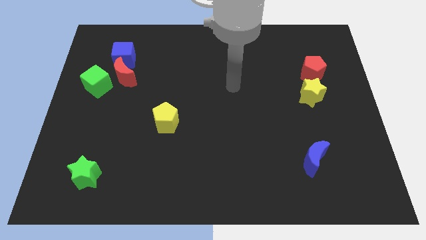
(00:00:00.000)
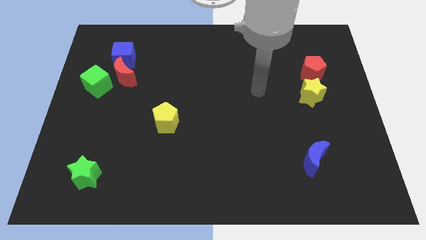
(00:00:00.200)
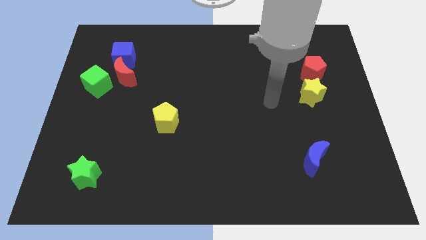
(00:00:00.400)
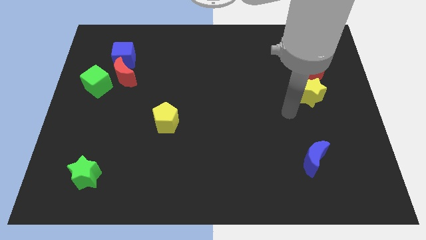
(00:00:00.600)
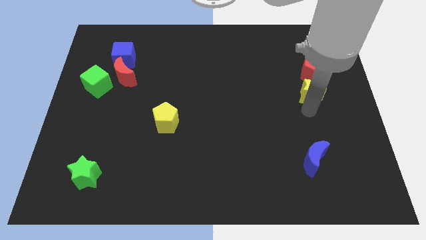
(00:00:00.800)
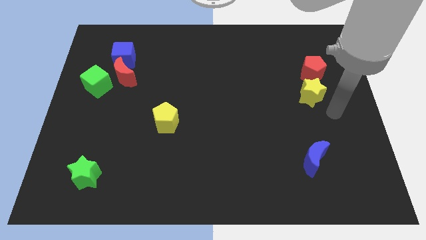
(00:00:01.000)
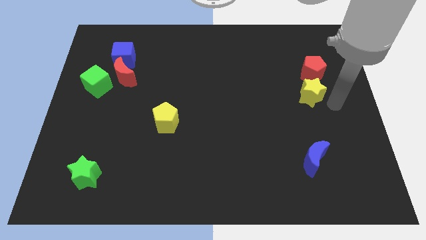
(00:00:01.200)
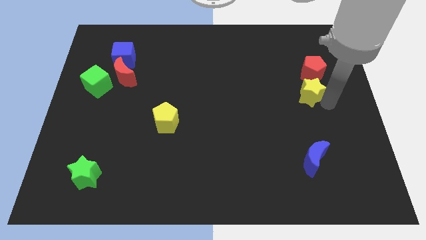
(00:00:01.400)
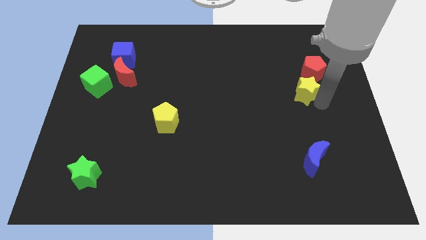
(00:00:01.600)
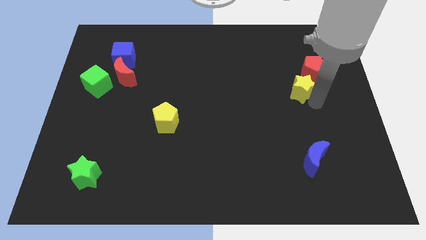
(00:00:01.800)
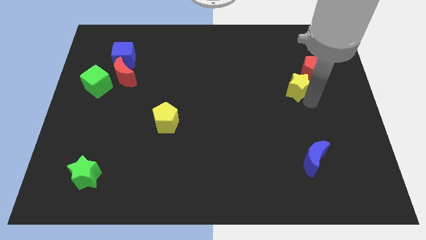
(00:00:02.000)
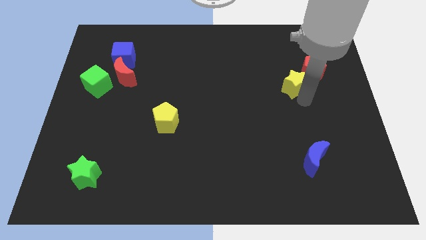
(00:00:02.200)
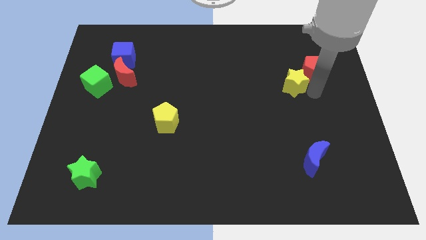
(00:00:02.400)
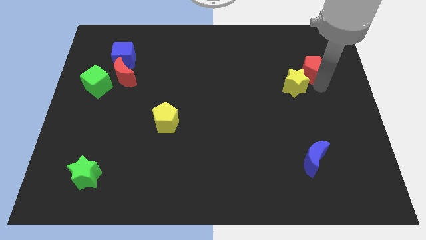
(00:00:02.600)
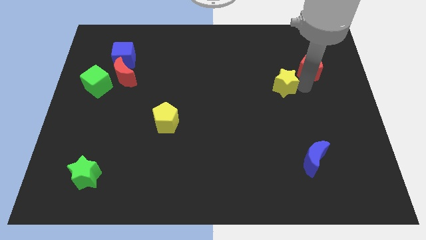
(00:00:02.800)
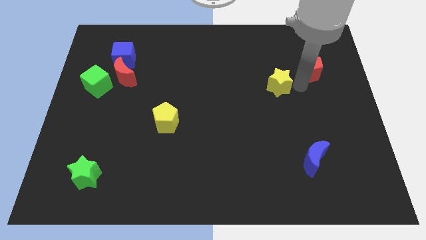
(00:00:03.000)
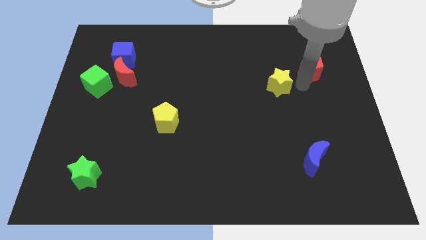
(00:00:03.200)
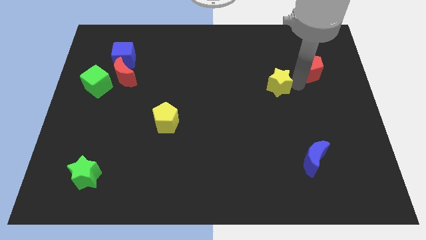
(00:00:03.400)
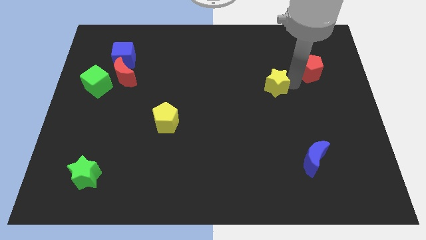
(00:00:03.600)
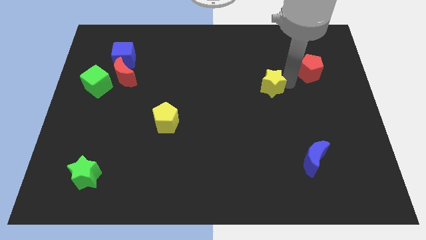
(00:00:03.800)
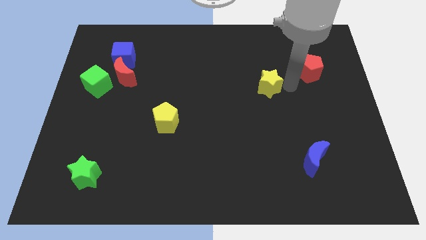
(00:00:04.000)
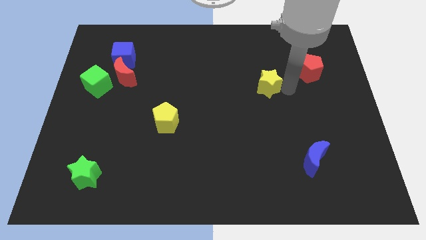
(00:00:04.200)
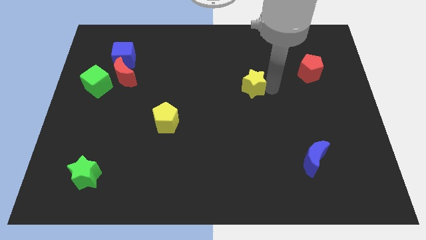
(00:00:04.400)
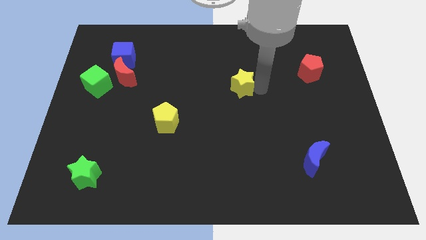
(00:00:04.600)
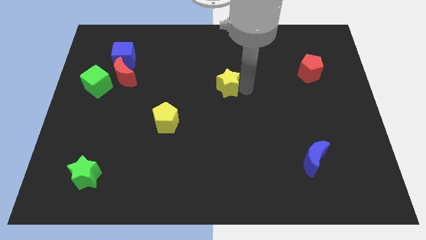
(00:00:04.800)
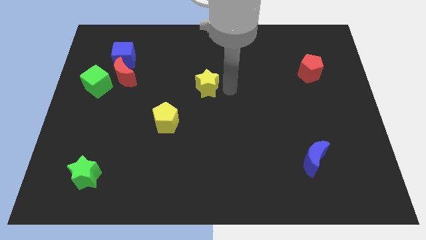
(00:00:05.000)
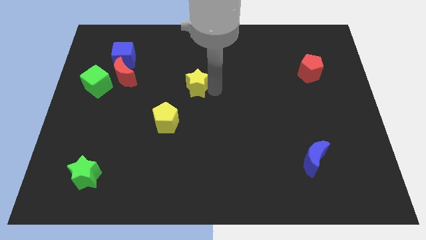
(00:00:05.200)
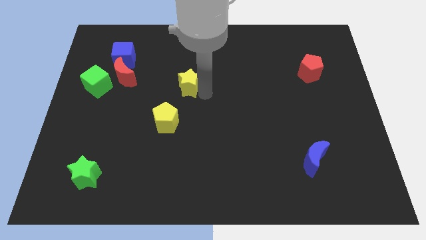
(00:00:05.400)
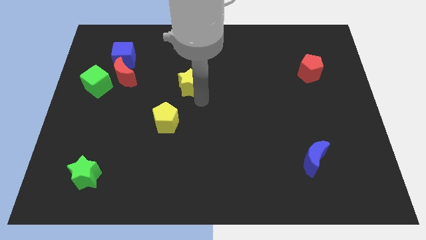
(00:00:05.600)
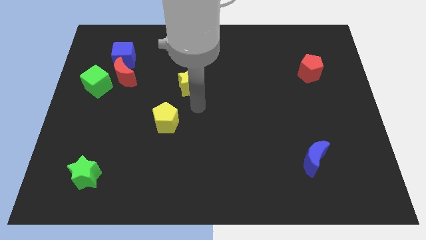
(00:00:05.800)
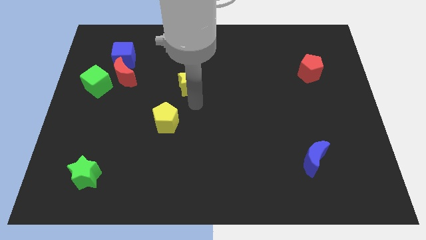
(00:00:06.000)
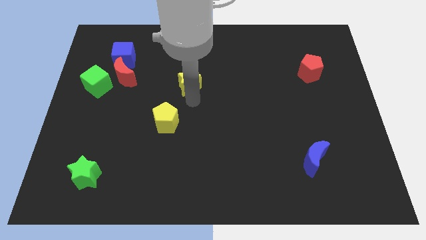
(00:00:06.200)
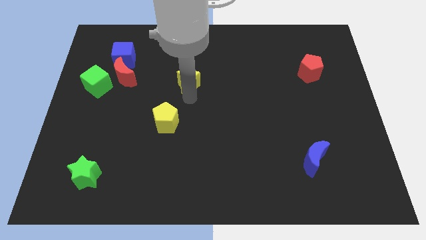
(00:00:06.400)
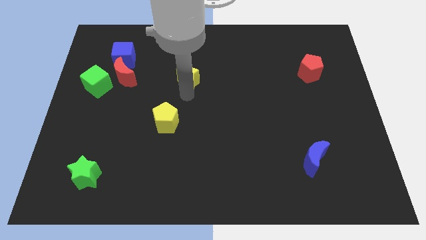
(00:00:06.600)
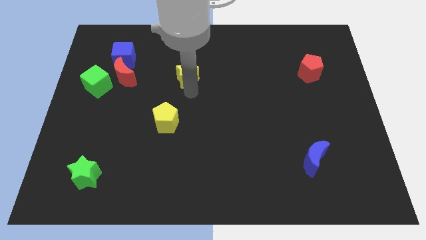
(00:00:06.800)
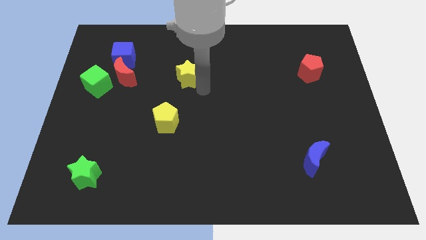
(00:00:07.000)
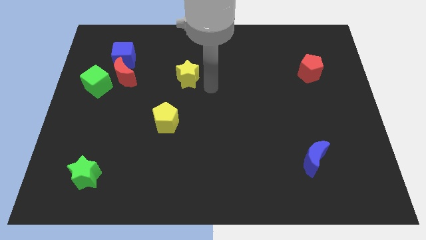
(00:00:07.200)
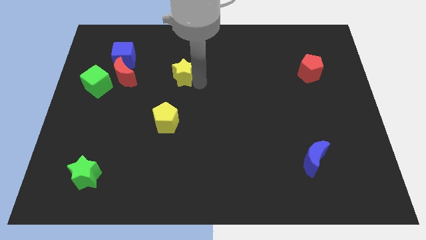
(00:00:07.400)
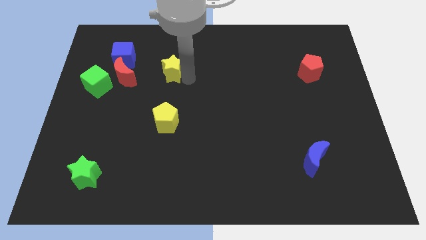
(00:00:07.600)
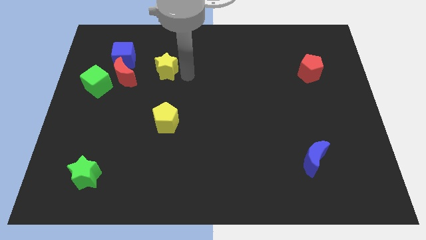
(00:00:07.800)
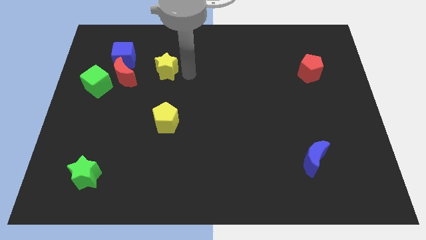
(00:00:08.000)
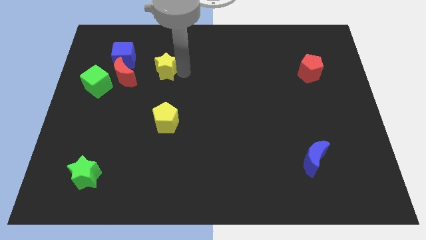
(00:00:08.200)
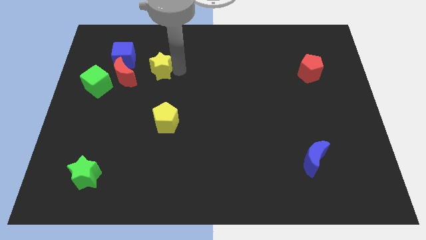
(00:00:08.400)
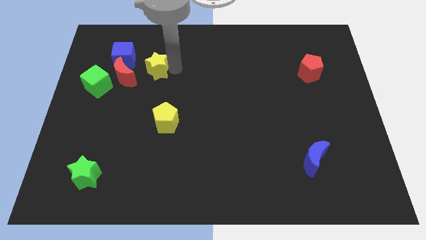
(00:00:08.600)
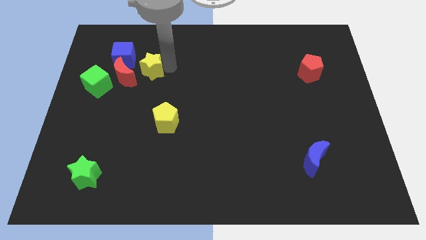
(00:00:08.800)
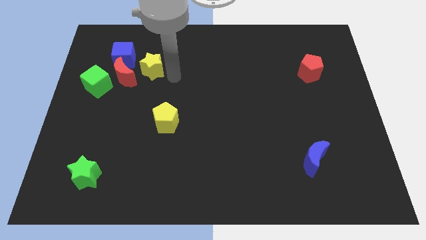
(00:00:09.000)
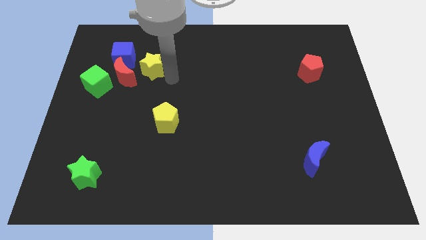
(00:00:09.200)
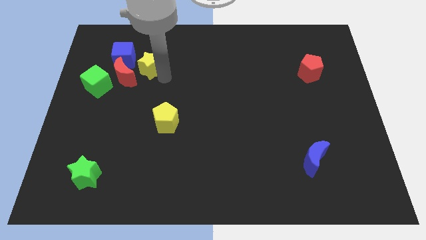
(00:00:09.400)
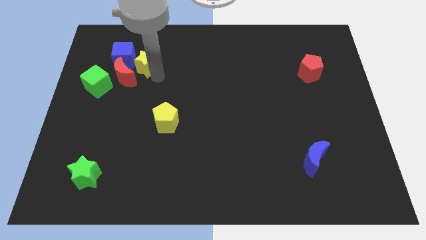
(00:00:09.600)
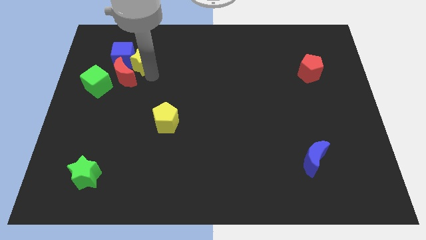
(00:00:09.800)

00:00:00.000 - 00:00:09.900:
slide the yellow star towards the blue cube

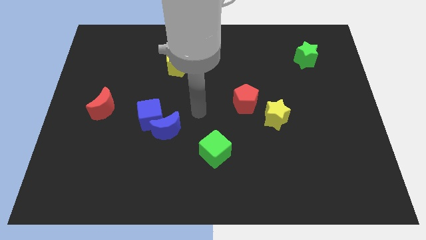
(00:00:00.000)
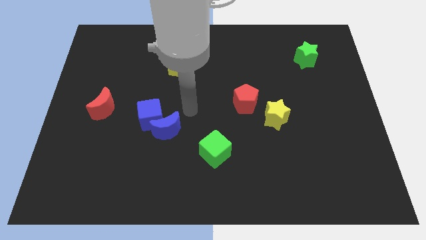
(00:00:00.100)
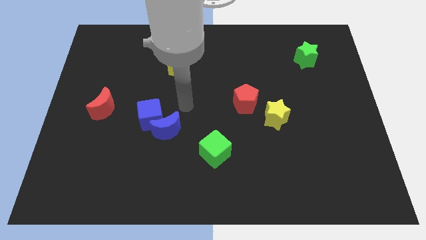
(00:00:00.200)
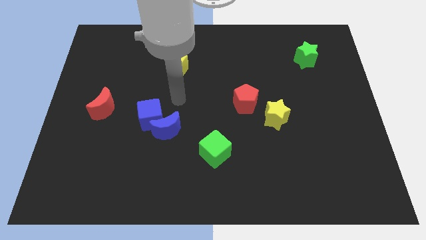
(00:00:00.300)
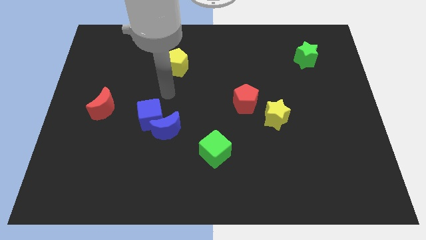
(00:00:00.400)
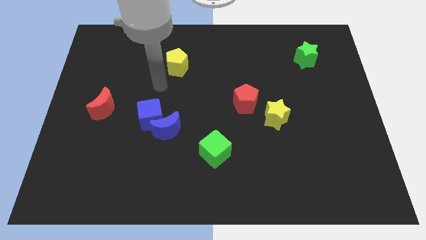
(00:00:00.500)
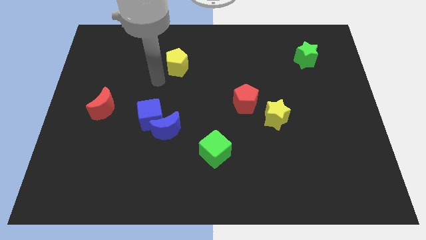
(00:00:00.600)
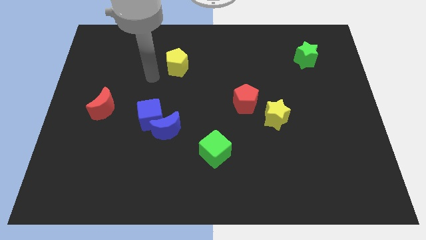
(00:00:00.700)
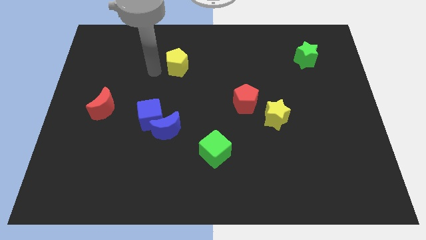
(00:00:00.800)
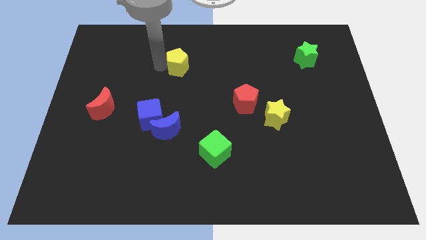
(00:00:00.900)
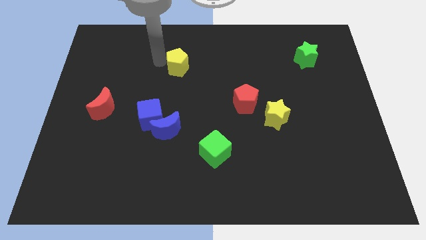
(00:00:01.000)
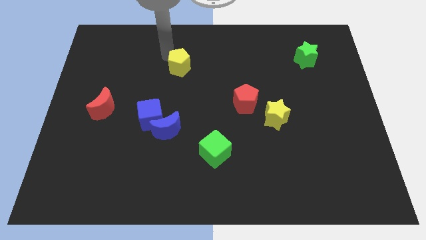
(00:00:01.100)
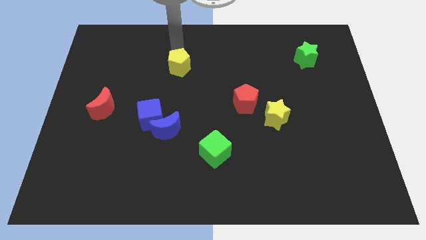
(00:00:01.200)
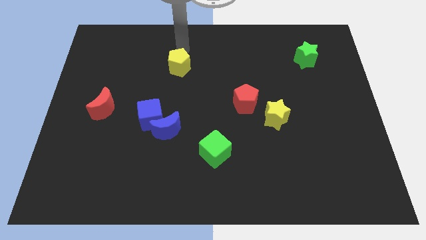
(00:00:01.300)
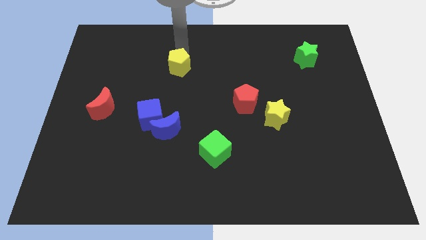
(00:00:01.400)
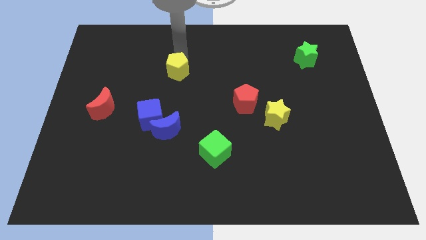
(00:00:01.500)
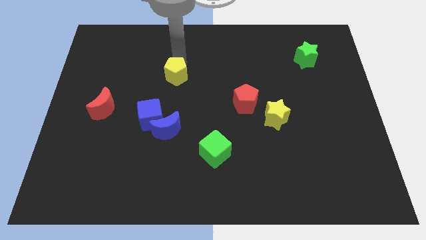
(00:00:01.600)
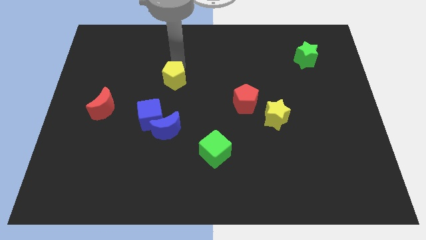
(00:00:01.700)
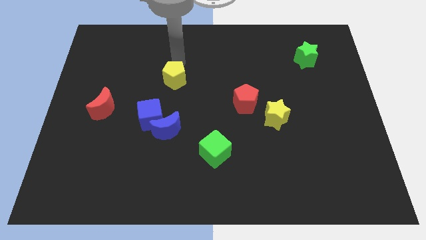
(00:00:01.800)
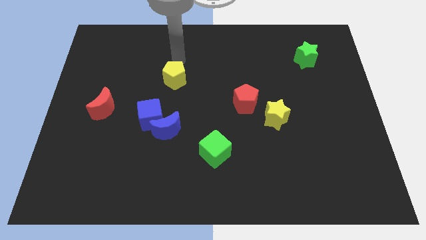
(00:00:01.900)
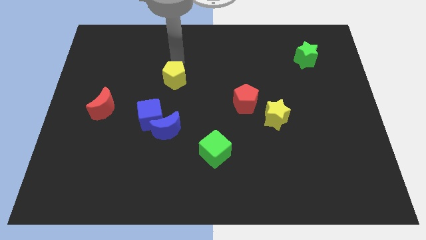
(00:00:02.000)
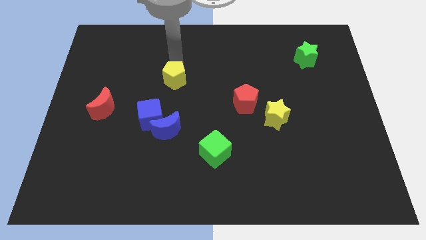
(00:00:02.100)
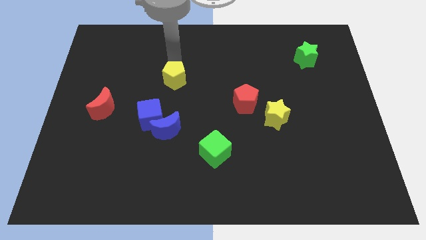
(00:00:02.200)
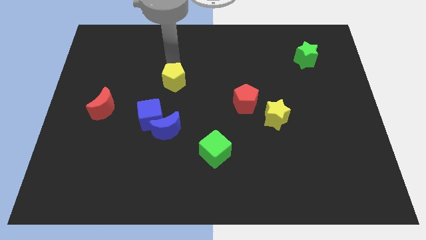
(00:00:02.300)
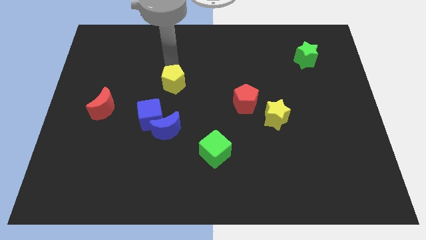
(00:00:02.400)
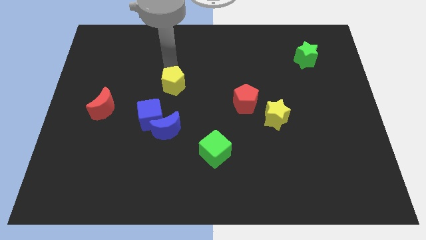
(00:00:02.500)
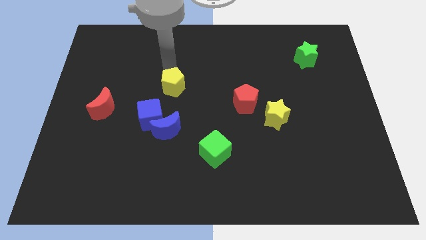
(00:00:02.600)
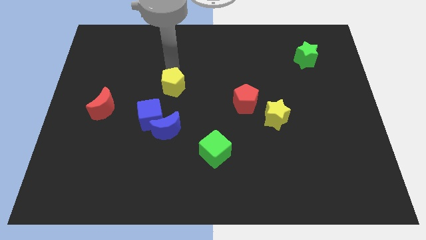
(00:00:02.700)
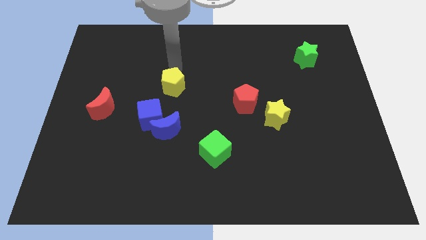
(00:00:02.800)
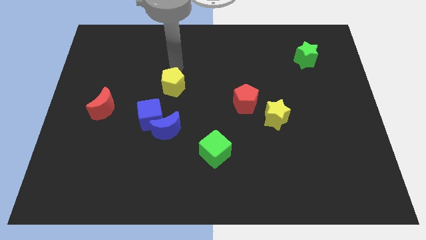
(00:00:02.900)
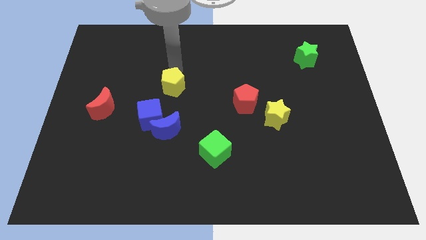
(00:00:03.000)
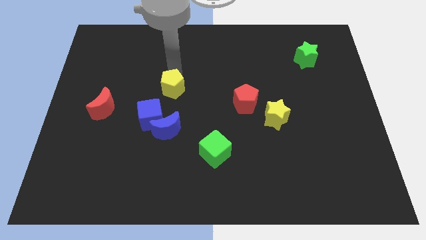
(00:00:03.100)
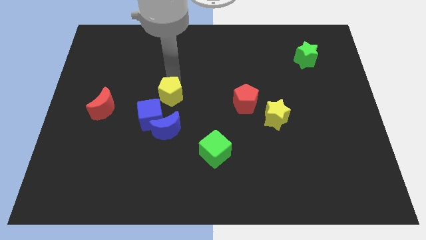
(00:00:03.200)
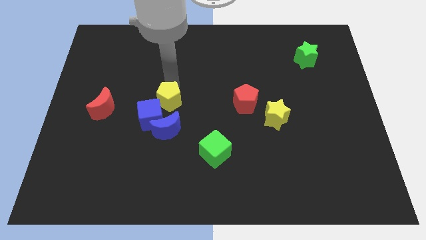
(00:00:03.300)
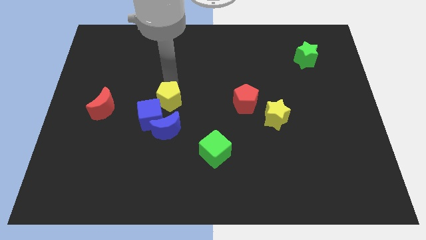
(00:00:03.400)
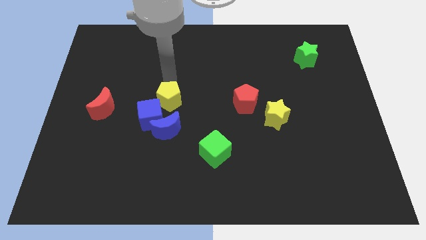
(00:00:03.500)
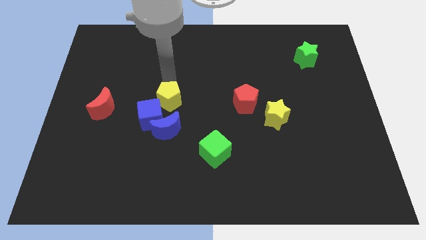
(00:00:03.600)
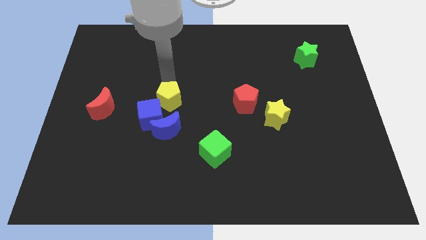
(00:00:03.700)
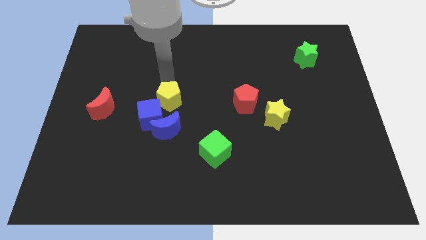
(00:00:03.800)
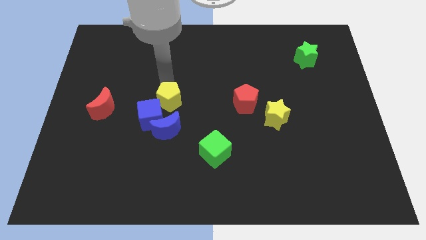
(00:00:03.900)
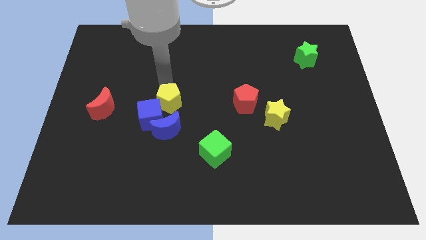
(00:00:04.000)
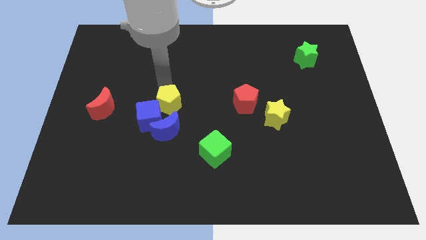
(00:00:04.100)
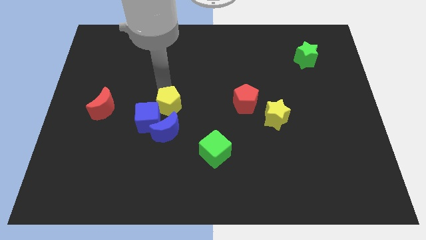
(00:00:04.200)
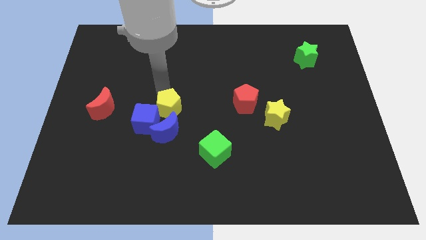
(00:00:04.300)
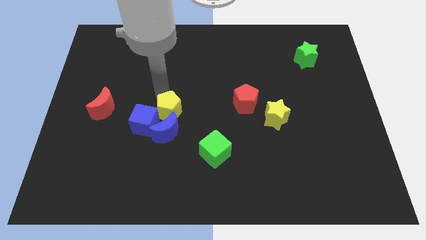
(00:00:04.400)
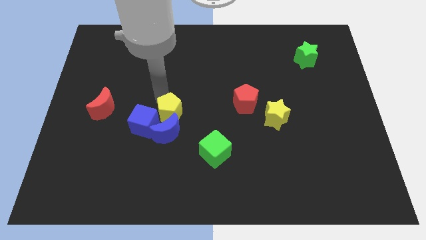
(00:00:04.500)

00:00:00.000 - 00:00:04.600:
push the yellow pentagon to the blue moon
